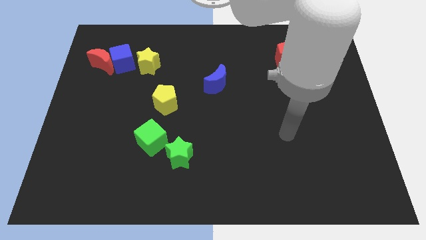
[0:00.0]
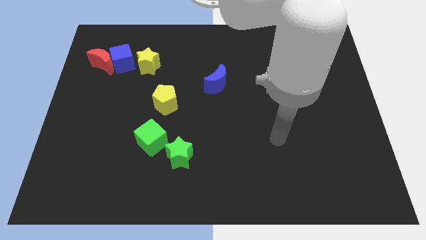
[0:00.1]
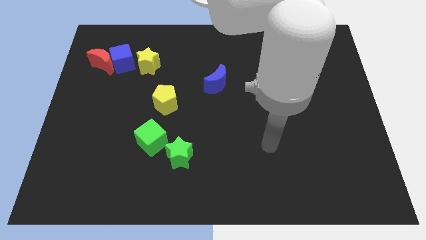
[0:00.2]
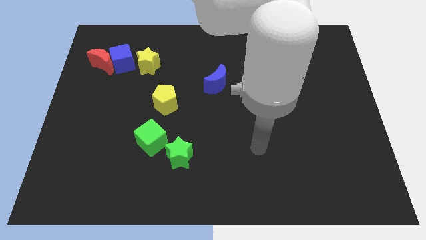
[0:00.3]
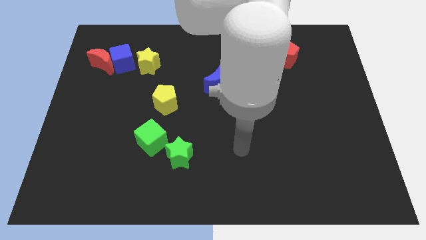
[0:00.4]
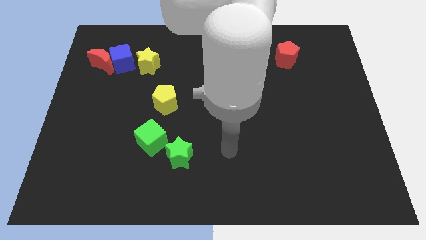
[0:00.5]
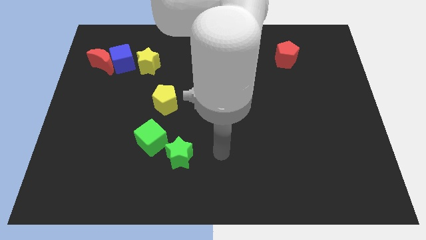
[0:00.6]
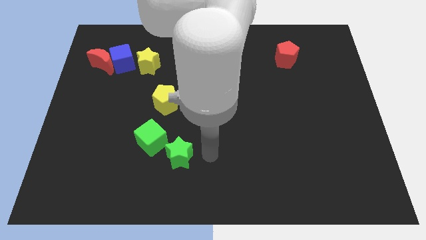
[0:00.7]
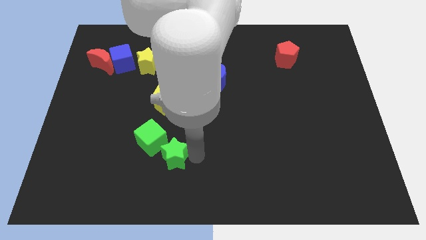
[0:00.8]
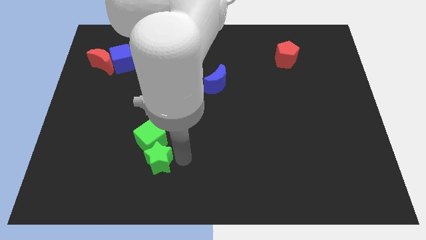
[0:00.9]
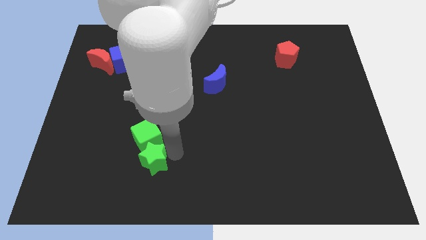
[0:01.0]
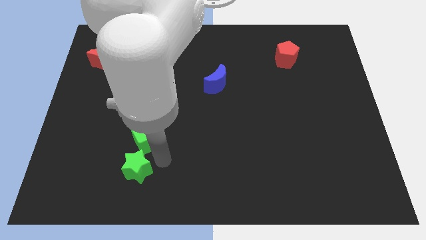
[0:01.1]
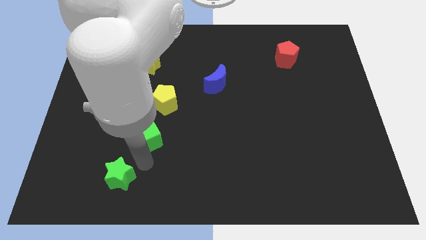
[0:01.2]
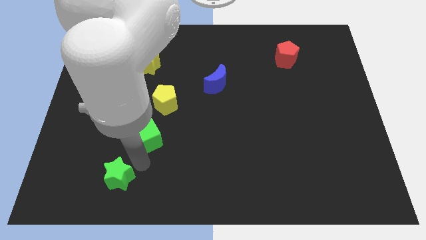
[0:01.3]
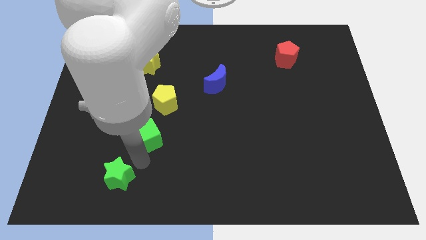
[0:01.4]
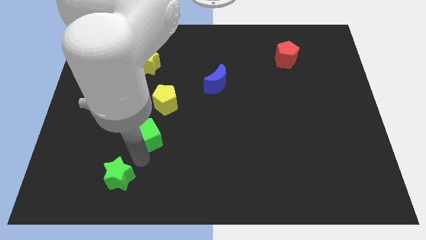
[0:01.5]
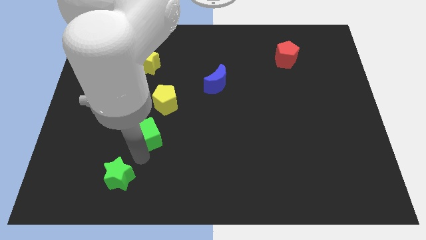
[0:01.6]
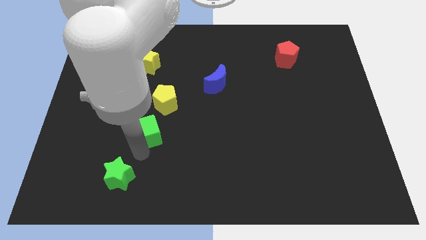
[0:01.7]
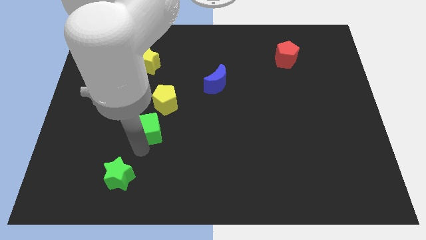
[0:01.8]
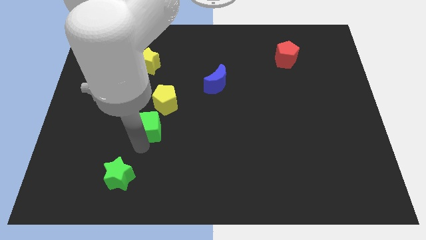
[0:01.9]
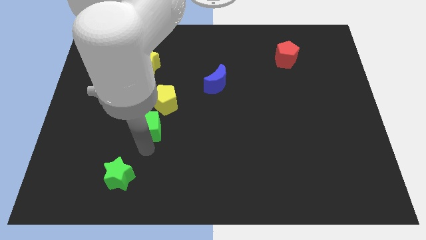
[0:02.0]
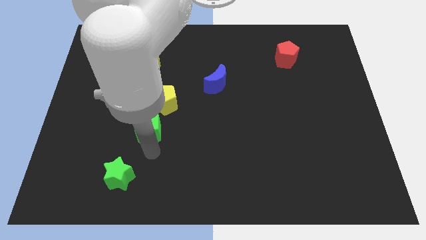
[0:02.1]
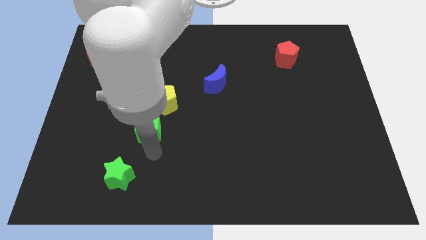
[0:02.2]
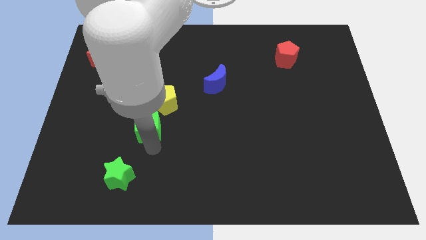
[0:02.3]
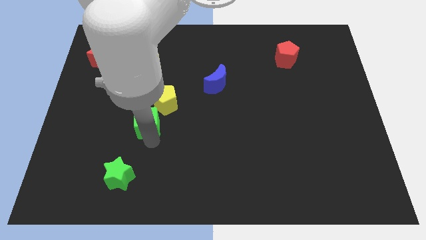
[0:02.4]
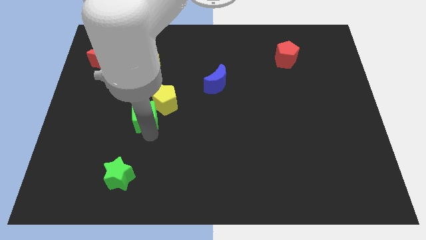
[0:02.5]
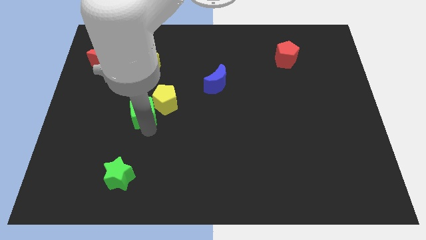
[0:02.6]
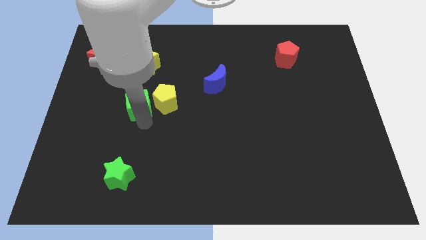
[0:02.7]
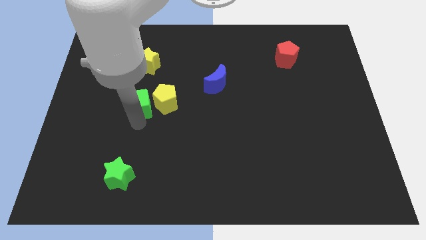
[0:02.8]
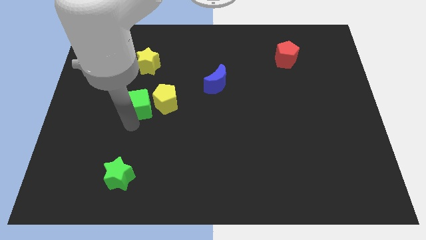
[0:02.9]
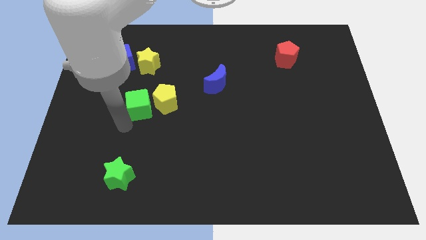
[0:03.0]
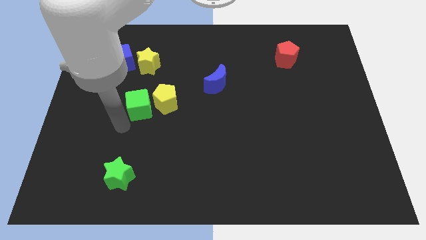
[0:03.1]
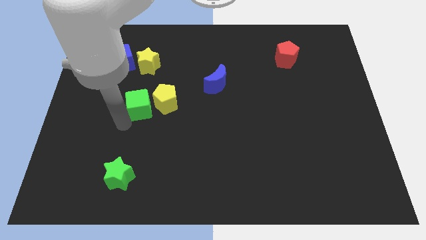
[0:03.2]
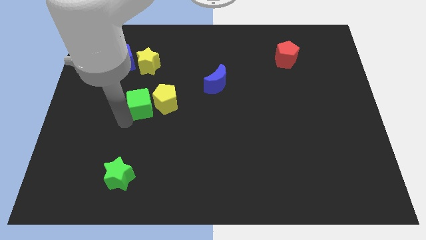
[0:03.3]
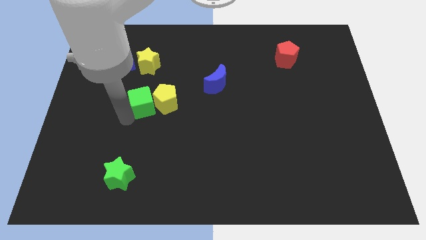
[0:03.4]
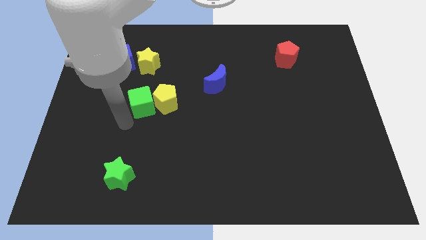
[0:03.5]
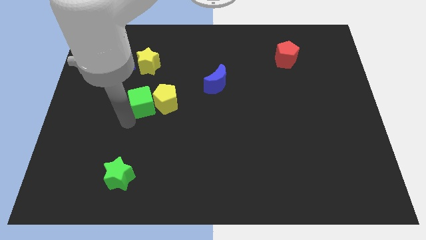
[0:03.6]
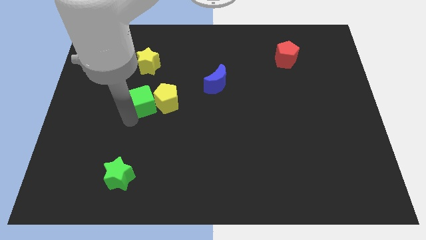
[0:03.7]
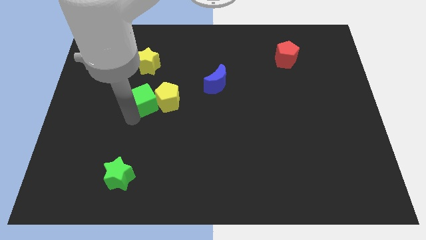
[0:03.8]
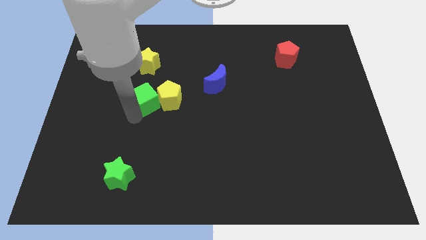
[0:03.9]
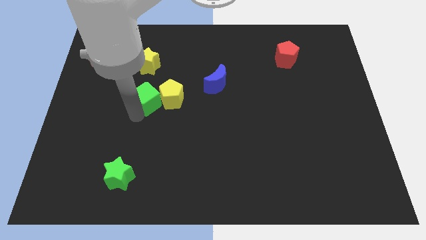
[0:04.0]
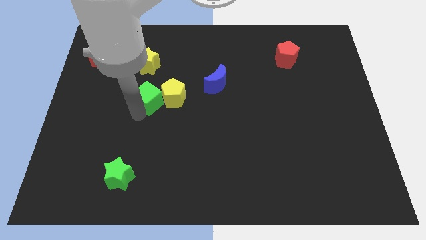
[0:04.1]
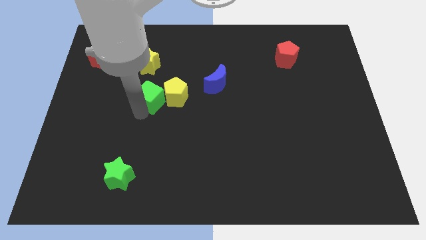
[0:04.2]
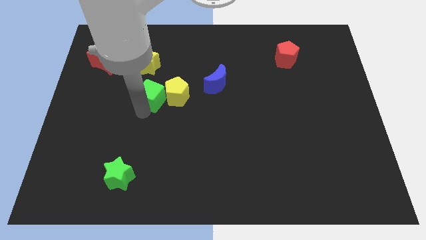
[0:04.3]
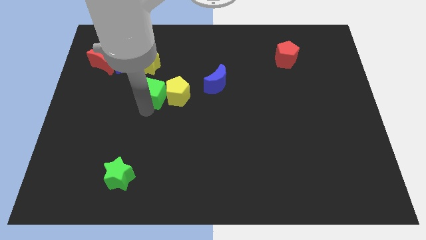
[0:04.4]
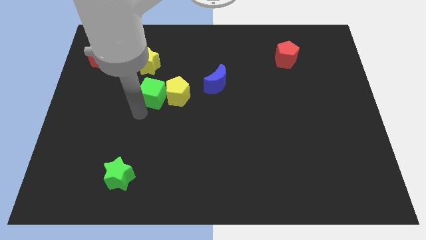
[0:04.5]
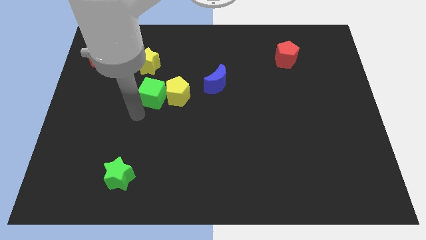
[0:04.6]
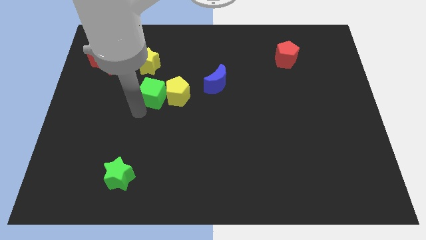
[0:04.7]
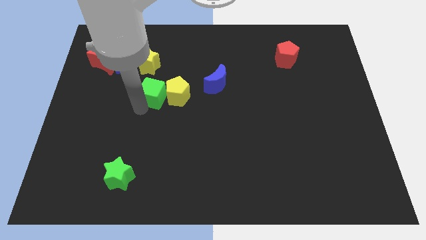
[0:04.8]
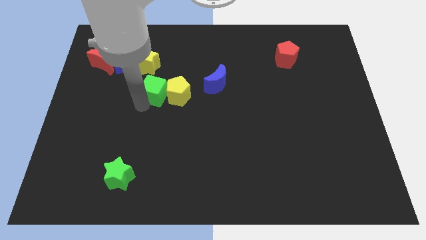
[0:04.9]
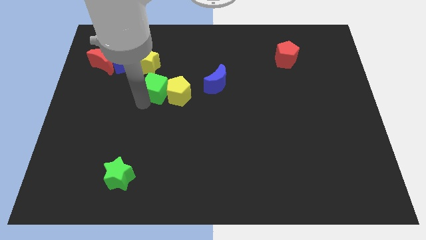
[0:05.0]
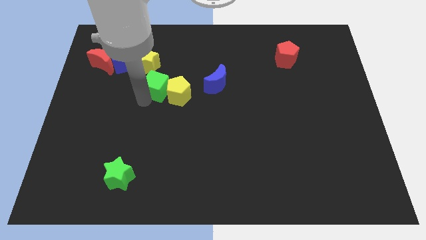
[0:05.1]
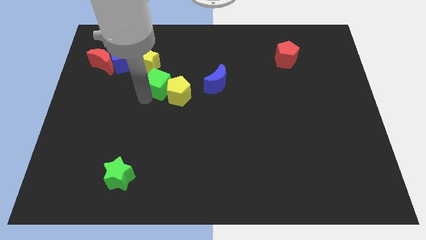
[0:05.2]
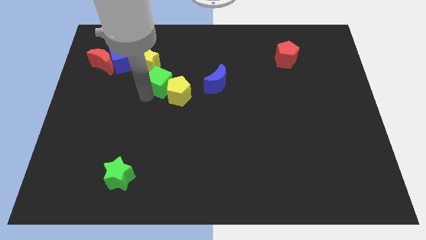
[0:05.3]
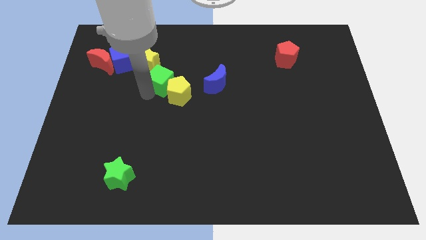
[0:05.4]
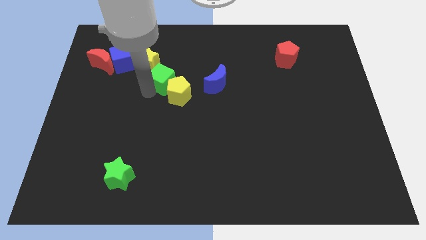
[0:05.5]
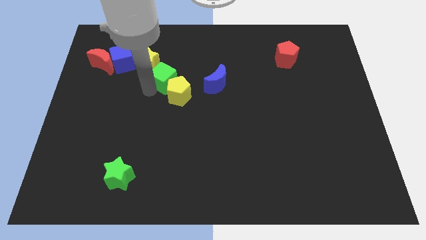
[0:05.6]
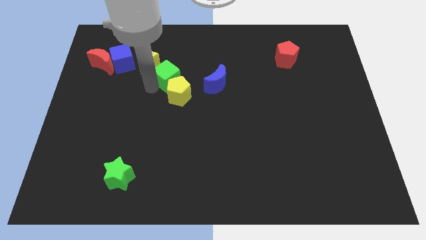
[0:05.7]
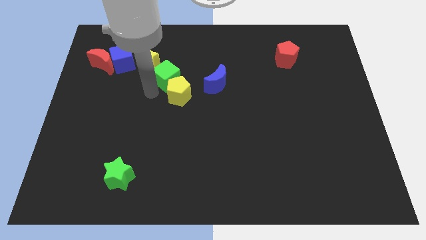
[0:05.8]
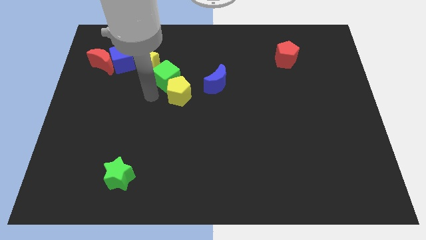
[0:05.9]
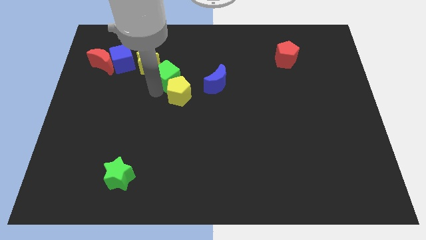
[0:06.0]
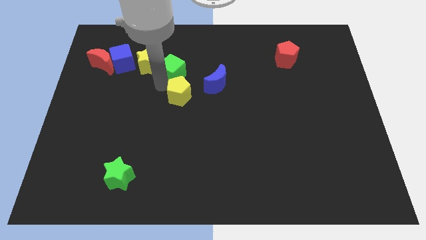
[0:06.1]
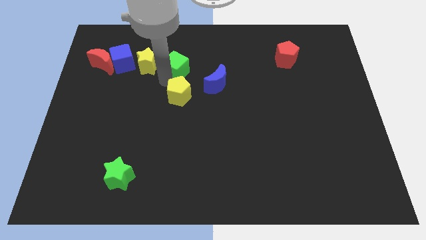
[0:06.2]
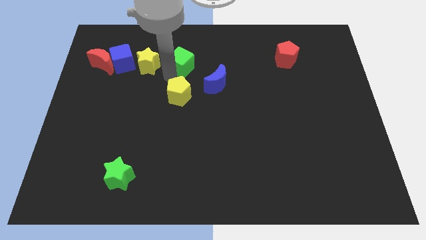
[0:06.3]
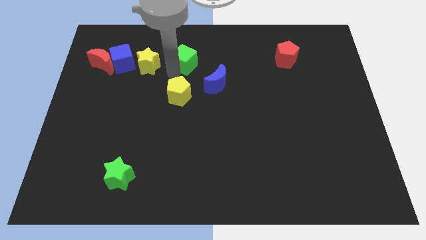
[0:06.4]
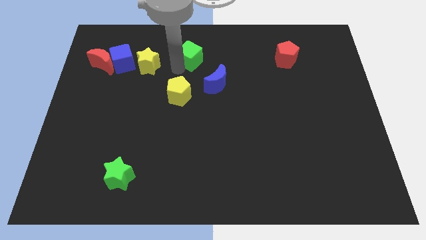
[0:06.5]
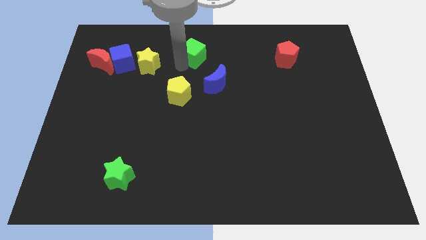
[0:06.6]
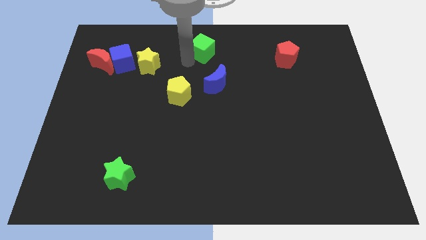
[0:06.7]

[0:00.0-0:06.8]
put the green cube to the towards your base
